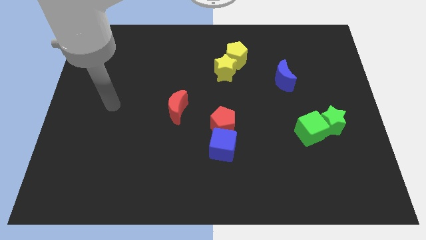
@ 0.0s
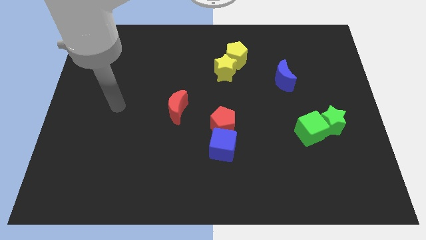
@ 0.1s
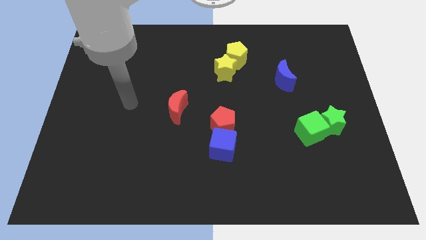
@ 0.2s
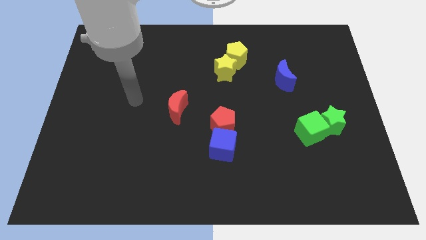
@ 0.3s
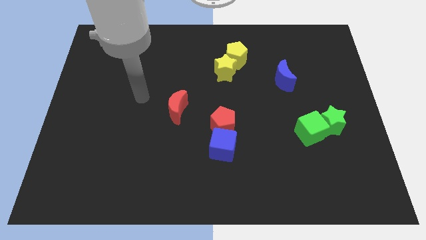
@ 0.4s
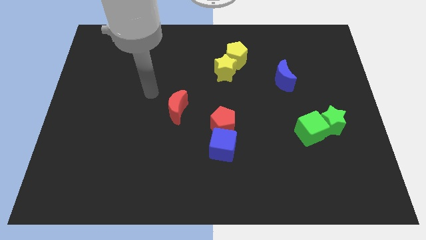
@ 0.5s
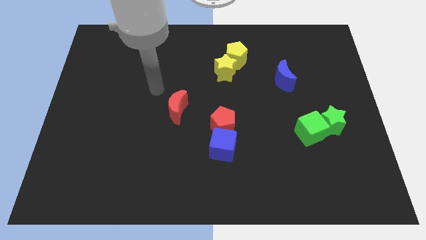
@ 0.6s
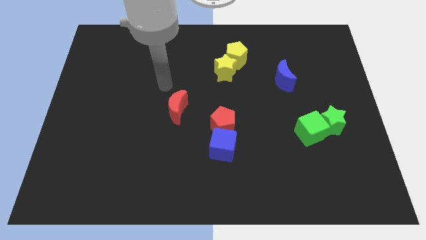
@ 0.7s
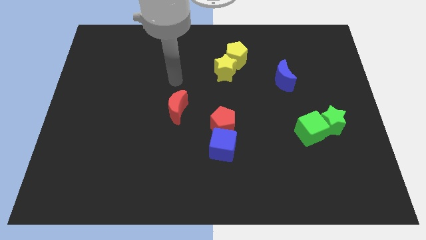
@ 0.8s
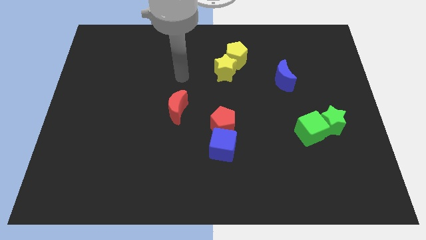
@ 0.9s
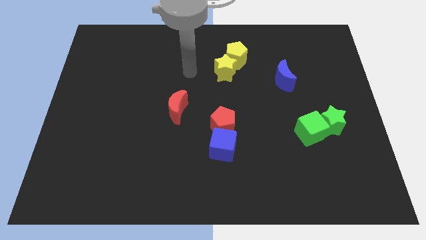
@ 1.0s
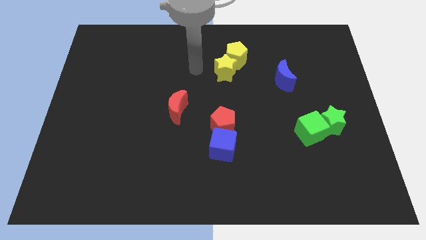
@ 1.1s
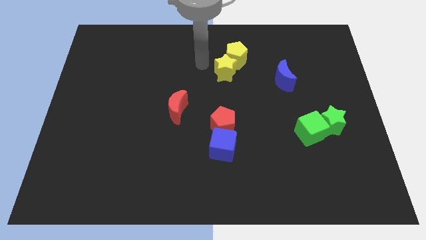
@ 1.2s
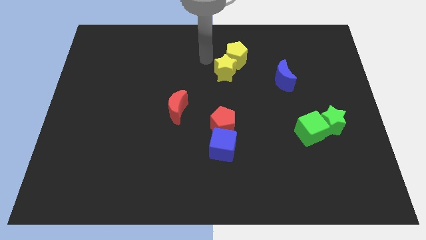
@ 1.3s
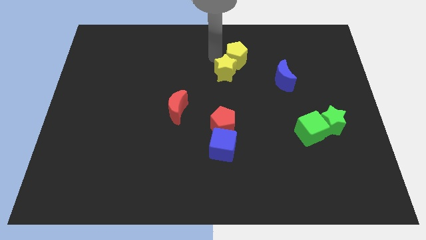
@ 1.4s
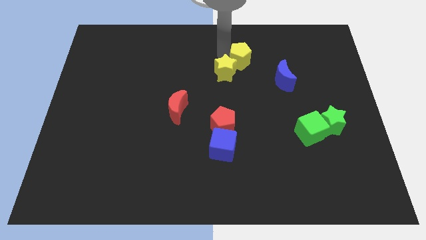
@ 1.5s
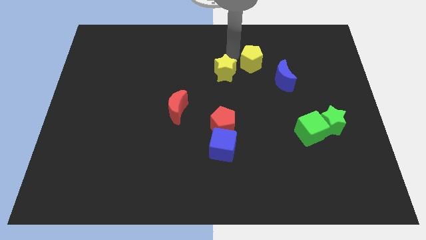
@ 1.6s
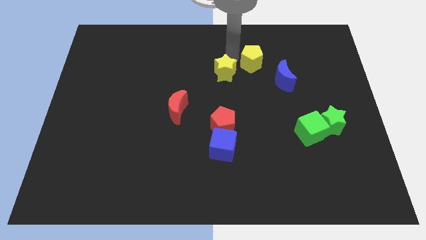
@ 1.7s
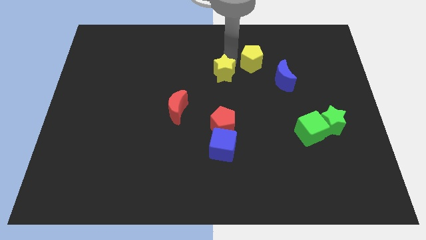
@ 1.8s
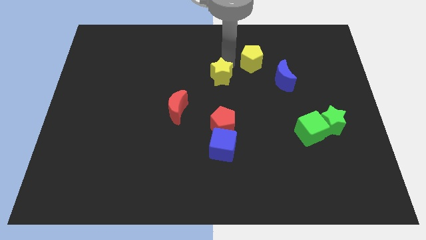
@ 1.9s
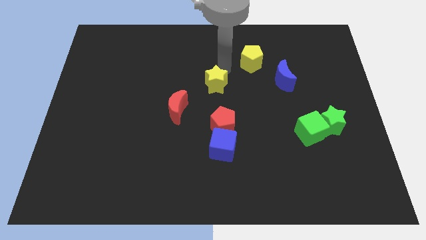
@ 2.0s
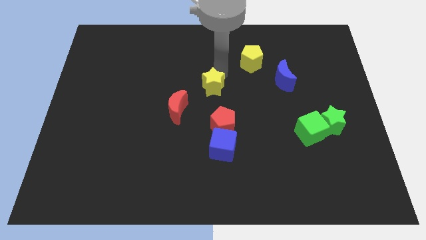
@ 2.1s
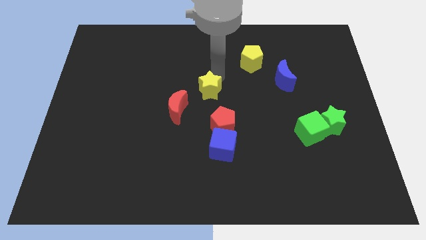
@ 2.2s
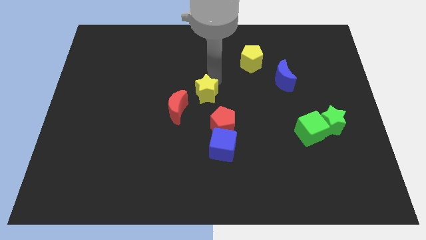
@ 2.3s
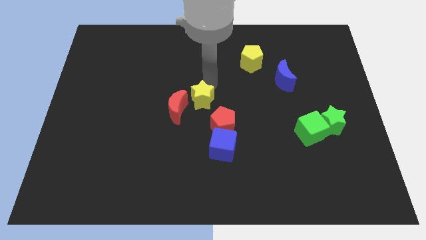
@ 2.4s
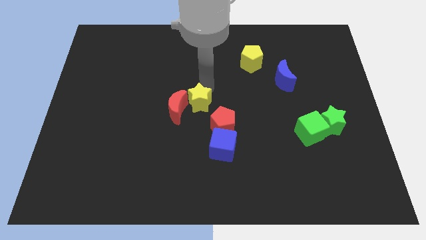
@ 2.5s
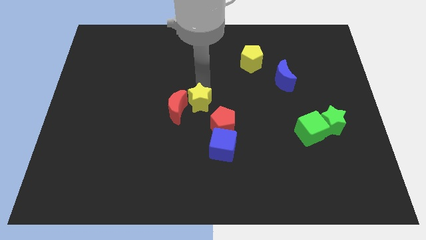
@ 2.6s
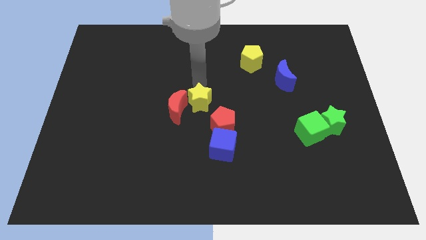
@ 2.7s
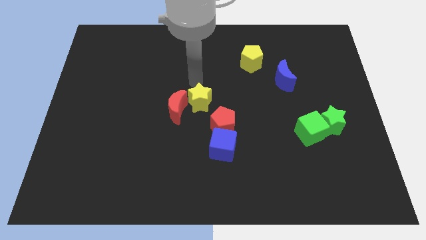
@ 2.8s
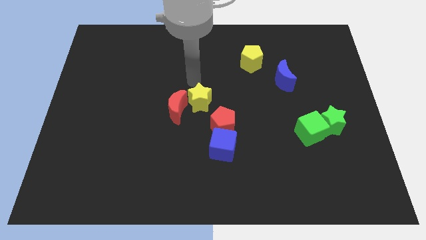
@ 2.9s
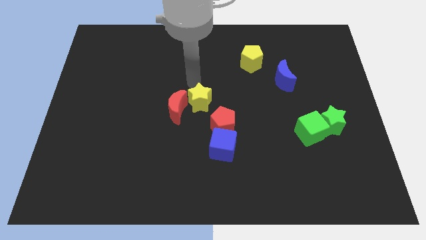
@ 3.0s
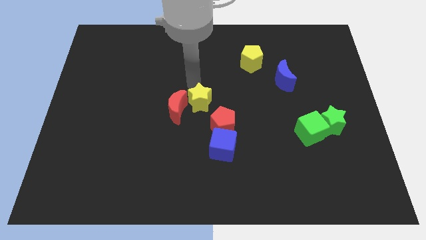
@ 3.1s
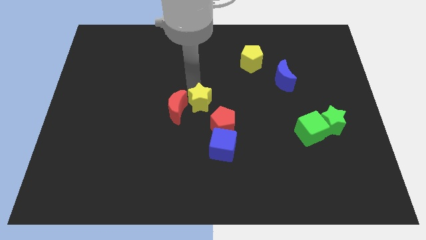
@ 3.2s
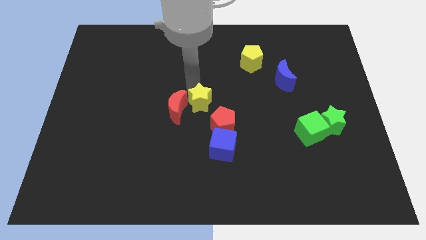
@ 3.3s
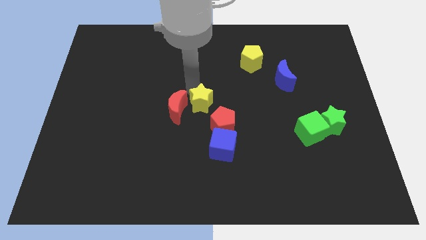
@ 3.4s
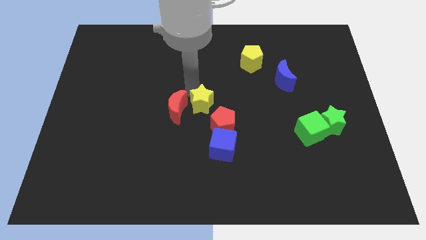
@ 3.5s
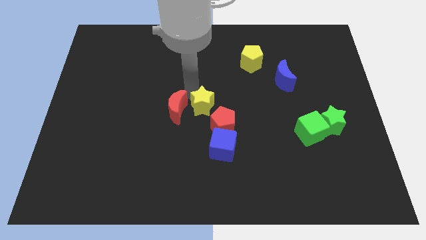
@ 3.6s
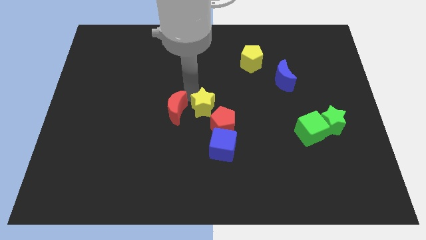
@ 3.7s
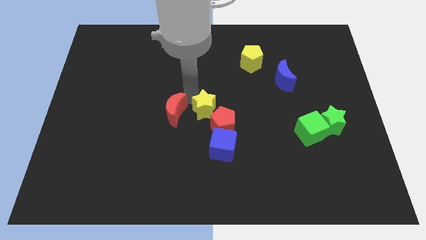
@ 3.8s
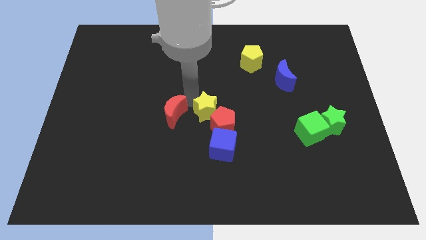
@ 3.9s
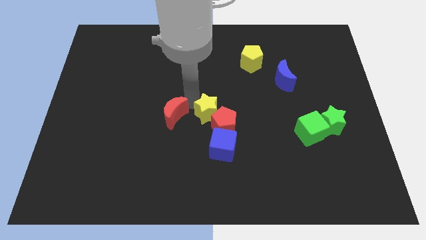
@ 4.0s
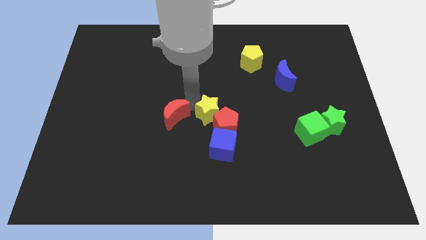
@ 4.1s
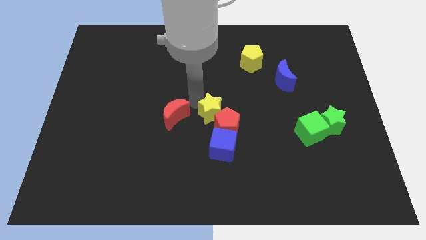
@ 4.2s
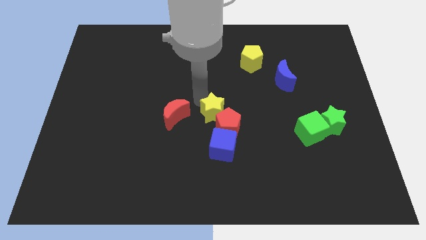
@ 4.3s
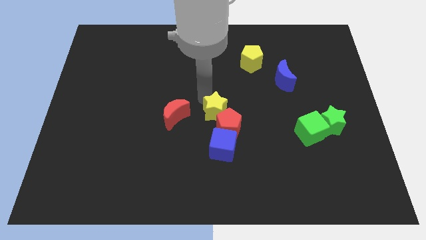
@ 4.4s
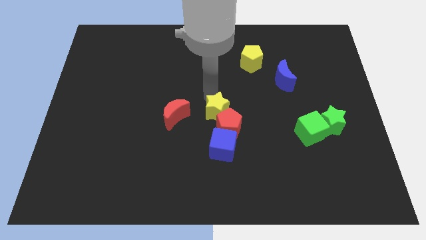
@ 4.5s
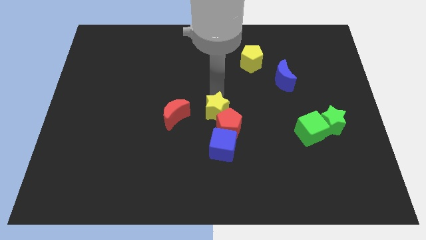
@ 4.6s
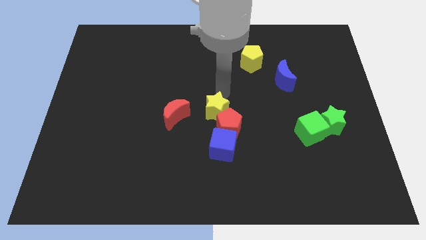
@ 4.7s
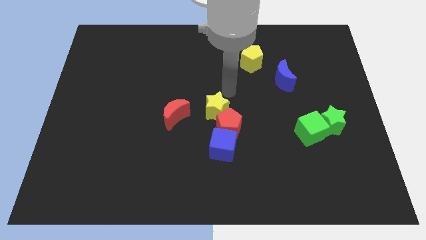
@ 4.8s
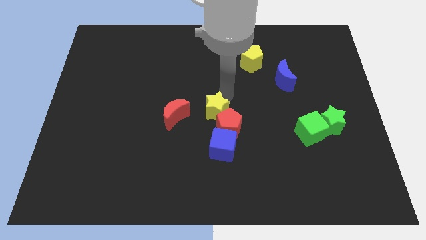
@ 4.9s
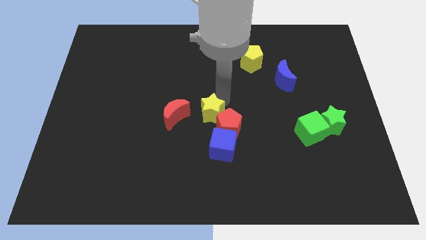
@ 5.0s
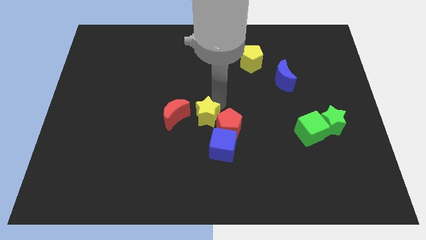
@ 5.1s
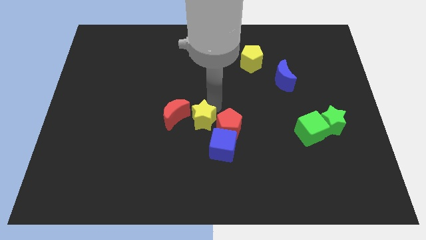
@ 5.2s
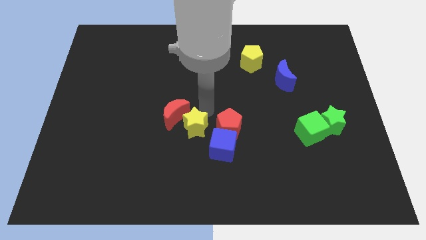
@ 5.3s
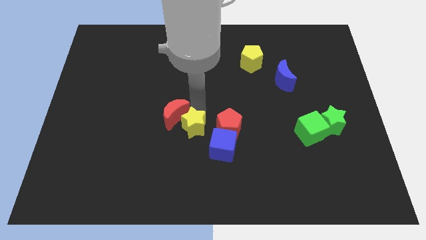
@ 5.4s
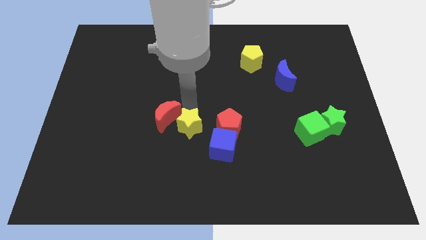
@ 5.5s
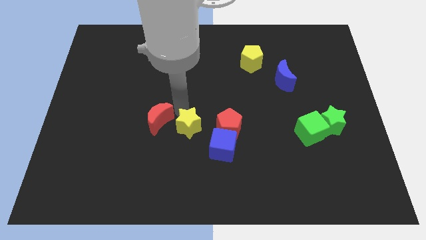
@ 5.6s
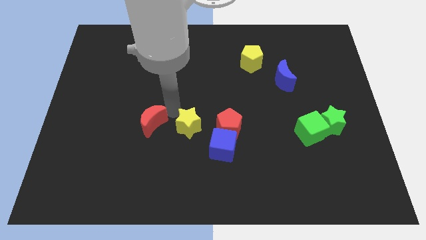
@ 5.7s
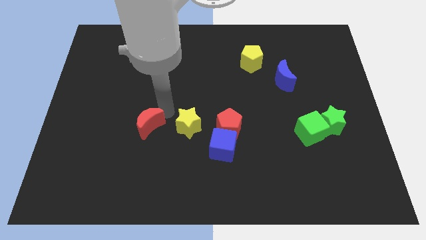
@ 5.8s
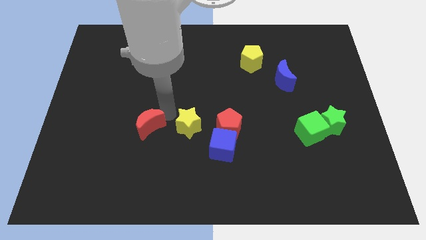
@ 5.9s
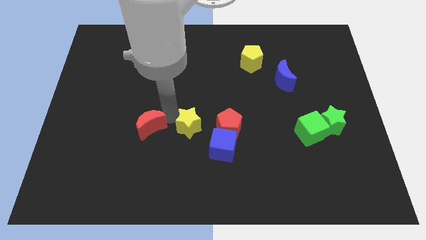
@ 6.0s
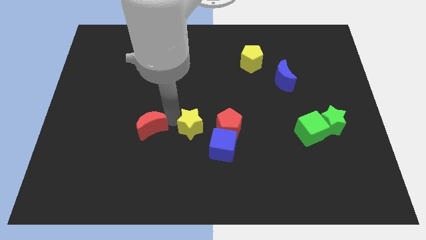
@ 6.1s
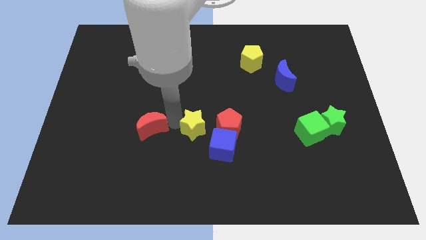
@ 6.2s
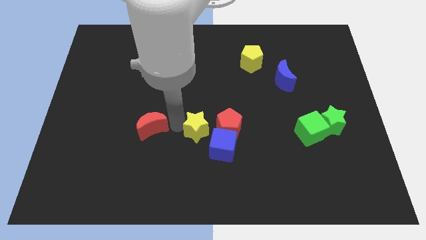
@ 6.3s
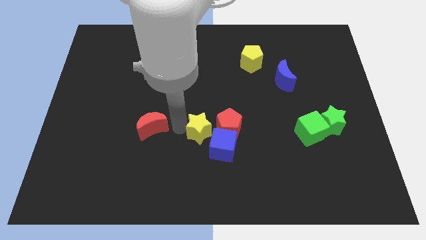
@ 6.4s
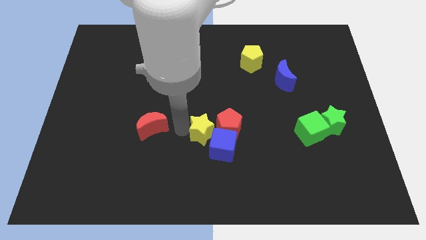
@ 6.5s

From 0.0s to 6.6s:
put the yellow star towards the blue cube

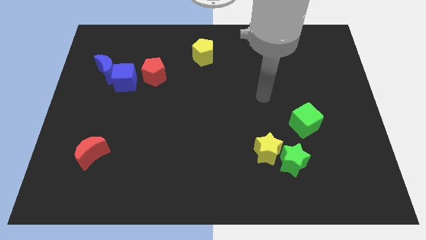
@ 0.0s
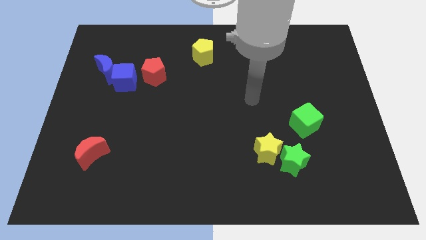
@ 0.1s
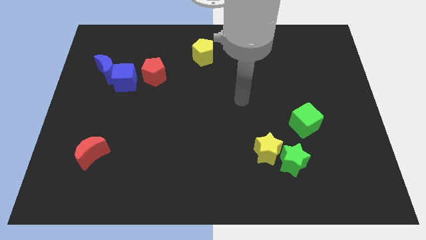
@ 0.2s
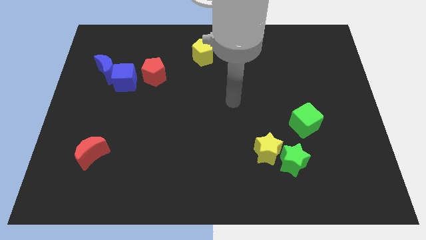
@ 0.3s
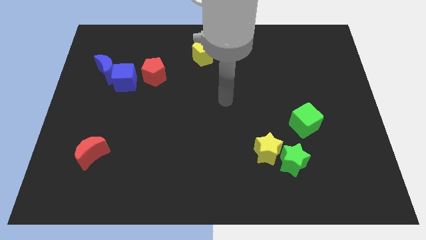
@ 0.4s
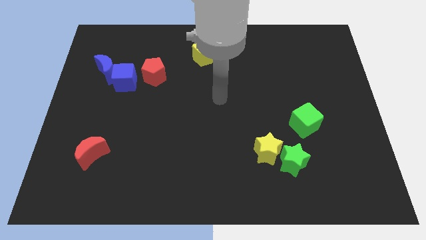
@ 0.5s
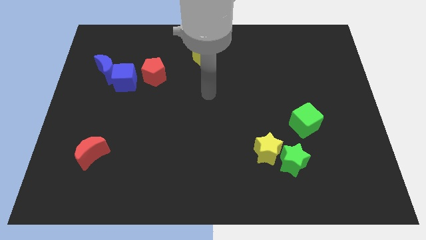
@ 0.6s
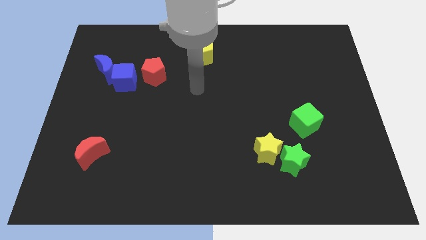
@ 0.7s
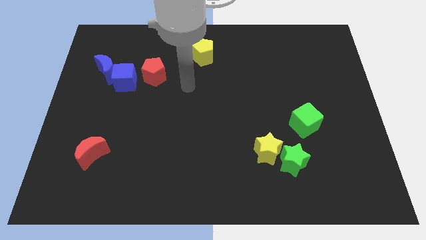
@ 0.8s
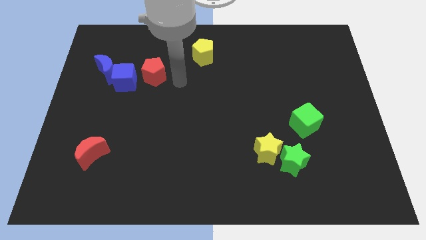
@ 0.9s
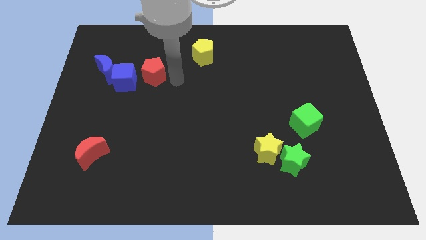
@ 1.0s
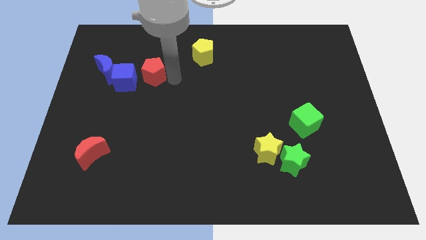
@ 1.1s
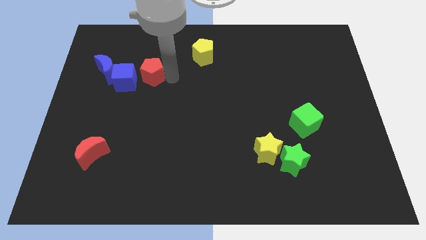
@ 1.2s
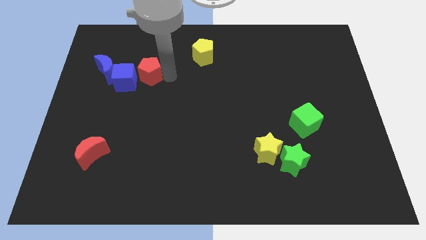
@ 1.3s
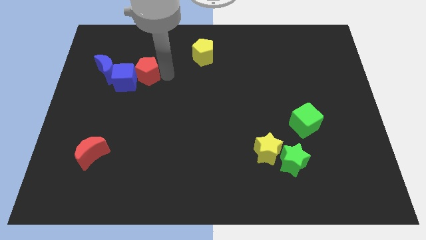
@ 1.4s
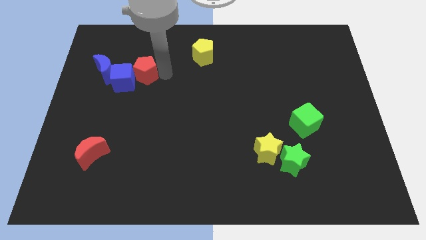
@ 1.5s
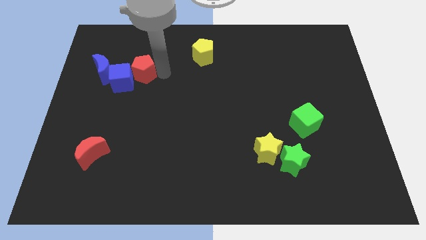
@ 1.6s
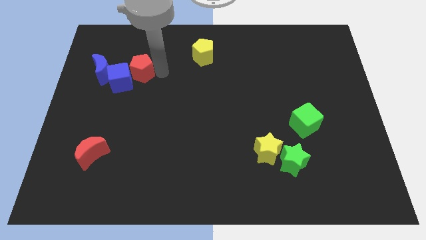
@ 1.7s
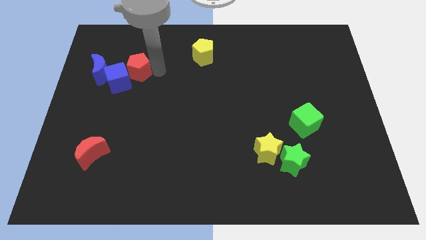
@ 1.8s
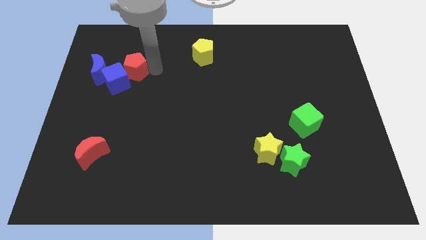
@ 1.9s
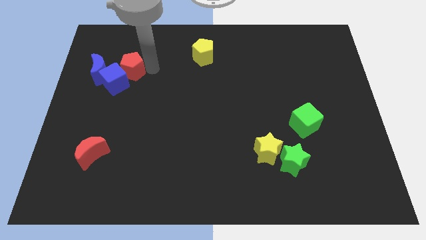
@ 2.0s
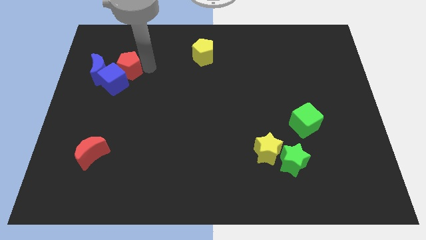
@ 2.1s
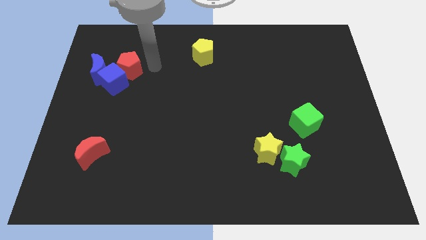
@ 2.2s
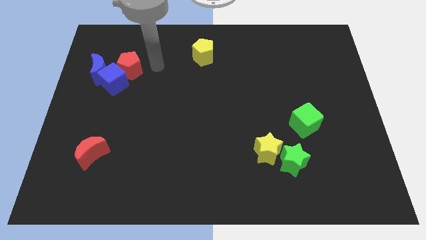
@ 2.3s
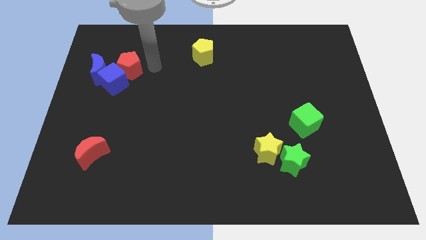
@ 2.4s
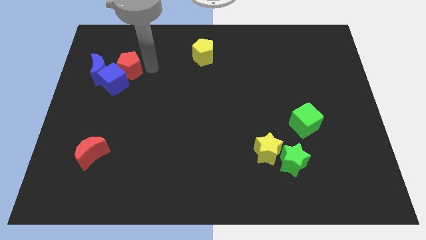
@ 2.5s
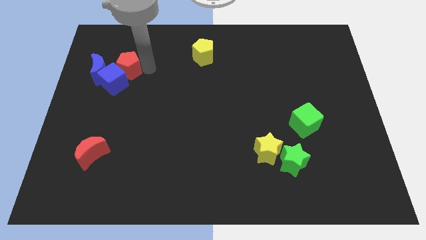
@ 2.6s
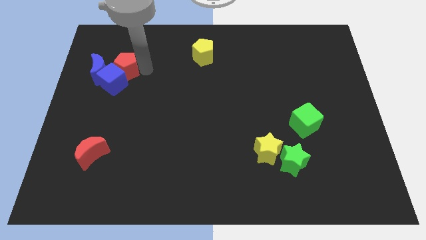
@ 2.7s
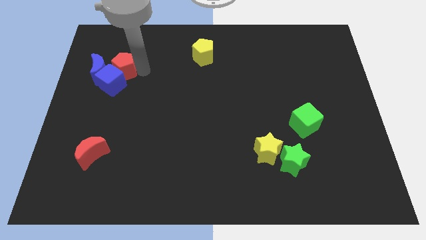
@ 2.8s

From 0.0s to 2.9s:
slide the red pentagon to the blue moon
